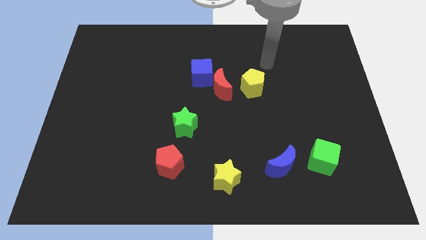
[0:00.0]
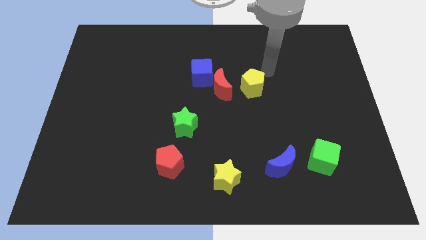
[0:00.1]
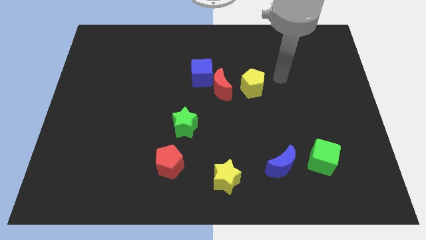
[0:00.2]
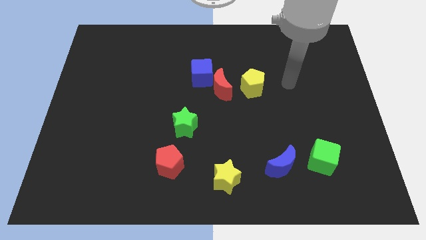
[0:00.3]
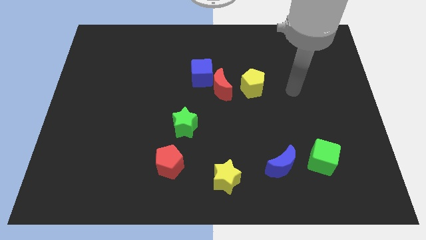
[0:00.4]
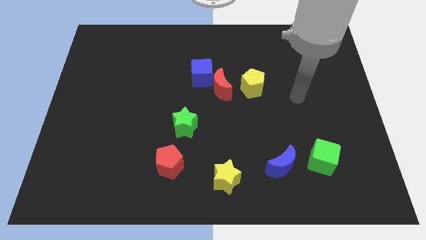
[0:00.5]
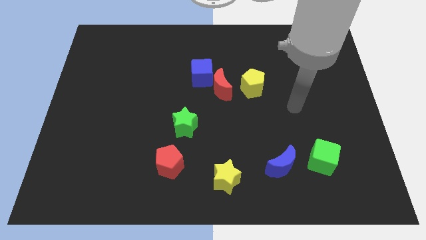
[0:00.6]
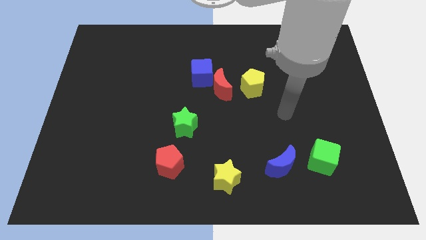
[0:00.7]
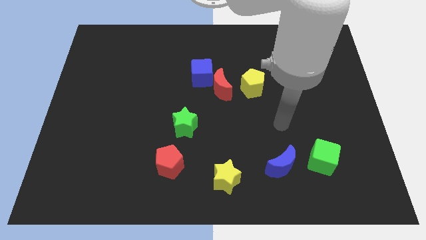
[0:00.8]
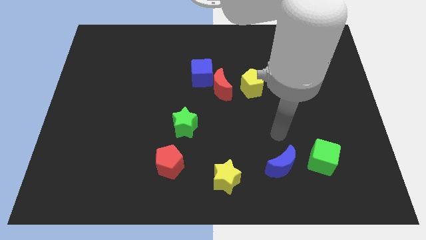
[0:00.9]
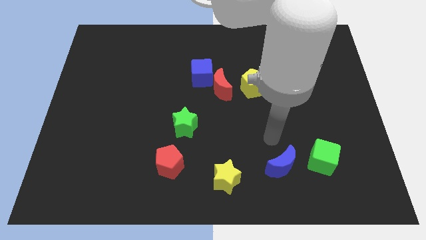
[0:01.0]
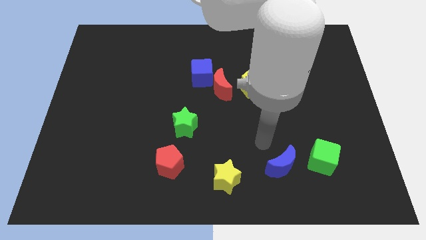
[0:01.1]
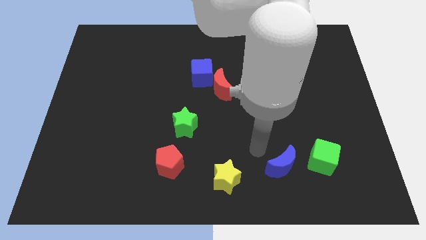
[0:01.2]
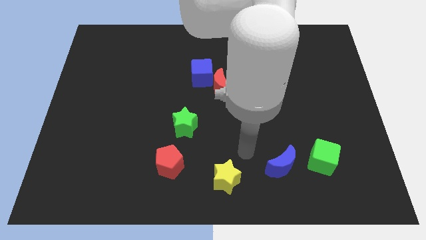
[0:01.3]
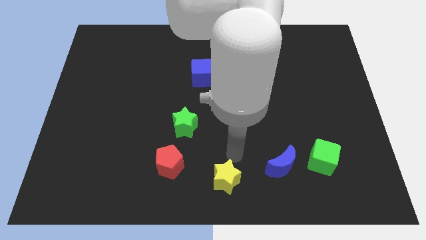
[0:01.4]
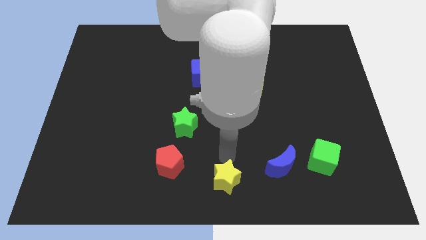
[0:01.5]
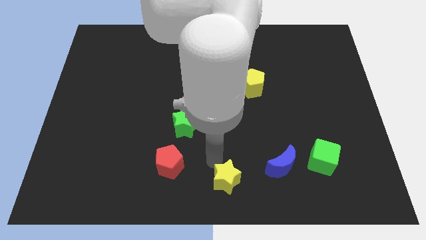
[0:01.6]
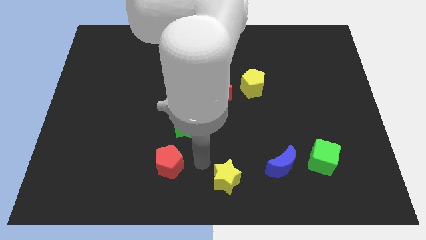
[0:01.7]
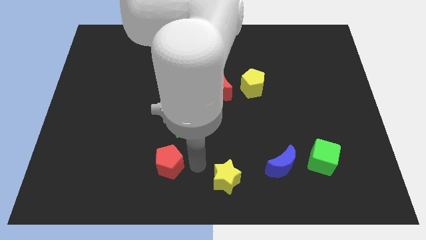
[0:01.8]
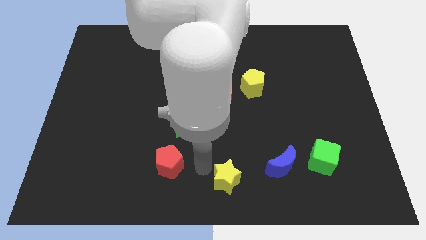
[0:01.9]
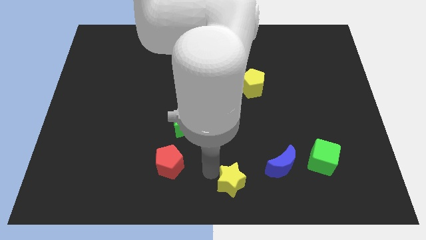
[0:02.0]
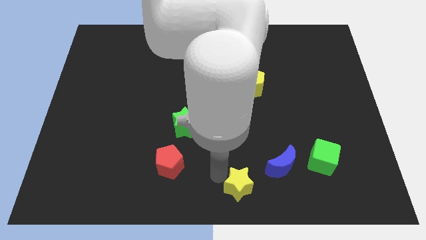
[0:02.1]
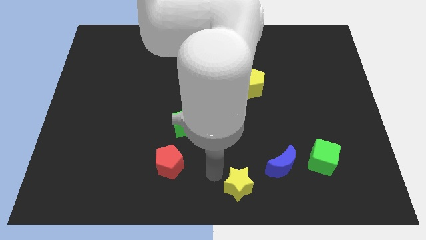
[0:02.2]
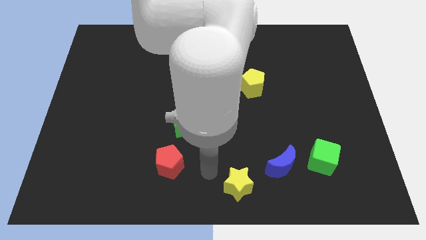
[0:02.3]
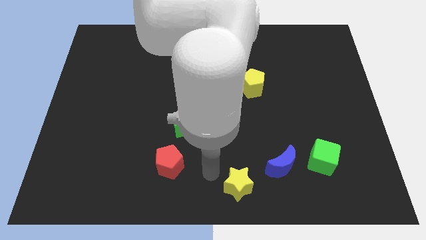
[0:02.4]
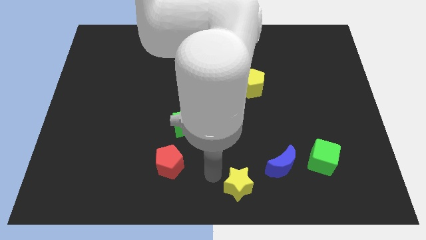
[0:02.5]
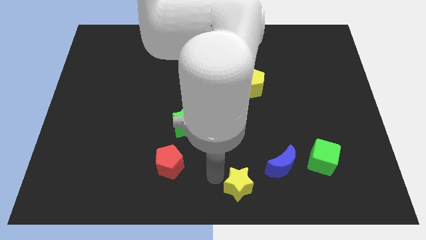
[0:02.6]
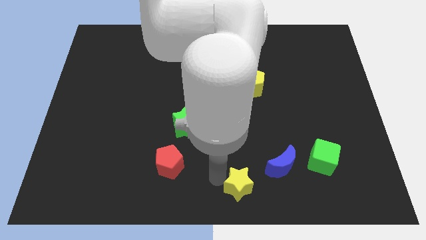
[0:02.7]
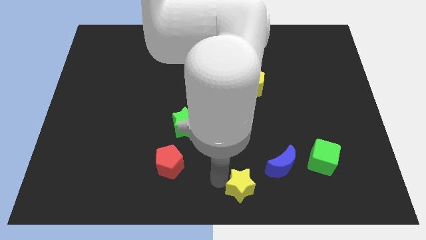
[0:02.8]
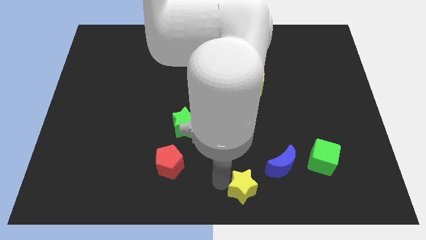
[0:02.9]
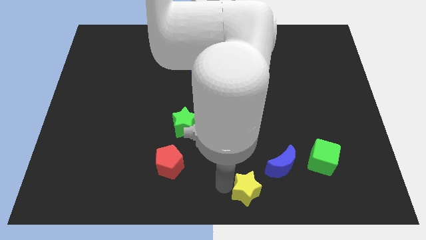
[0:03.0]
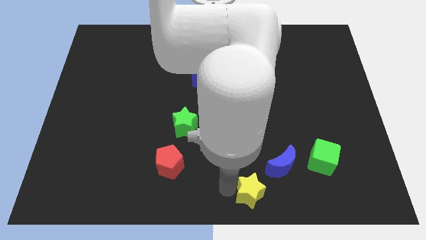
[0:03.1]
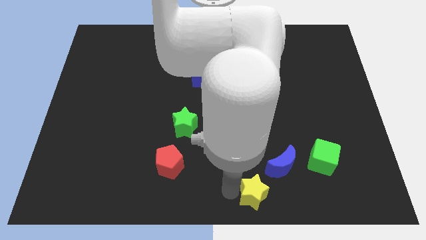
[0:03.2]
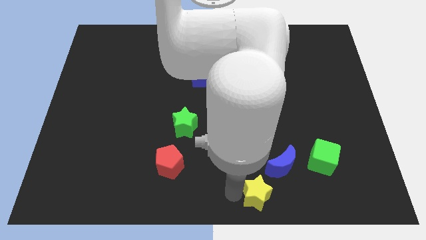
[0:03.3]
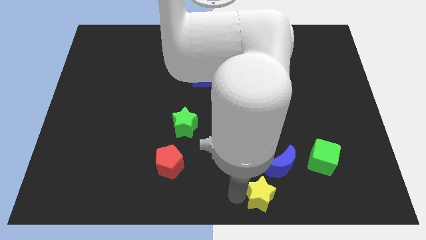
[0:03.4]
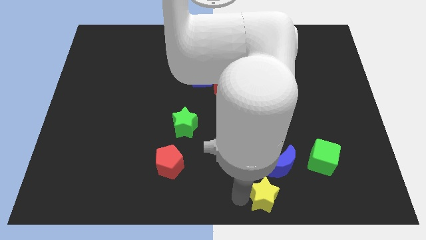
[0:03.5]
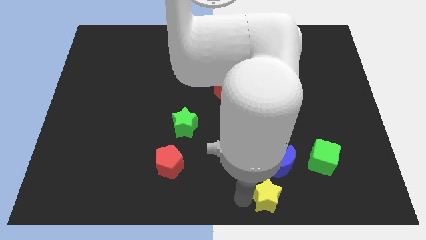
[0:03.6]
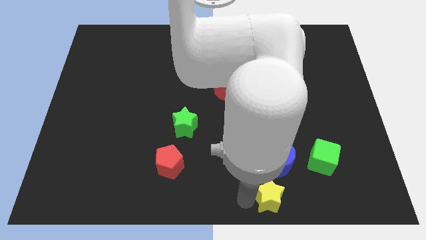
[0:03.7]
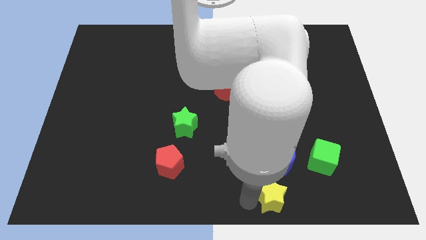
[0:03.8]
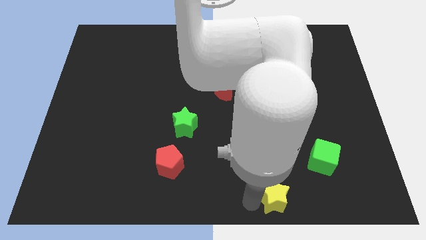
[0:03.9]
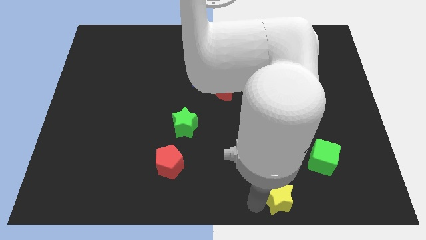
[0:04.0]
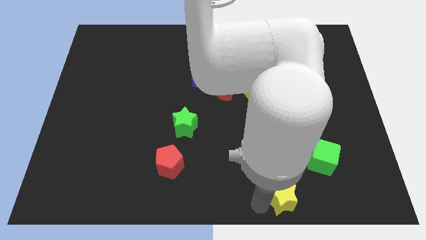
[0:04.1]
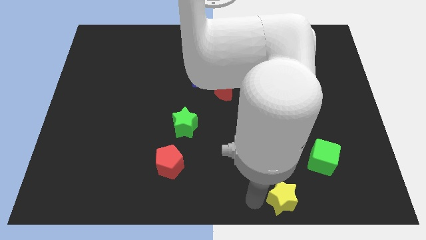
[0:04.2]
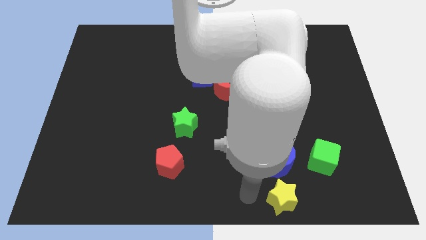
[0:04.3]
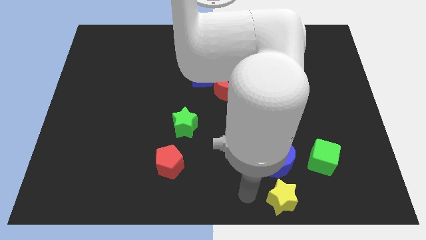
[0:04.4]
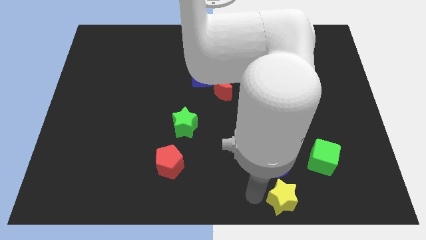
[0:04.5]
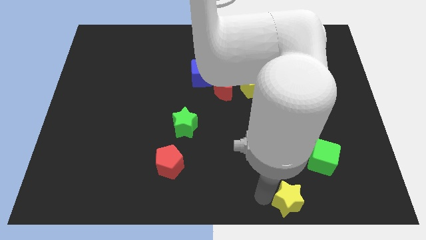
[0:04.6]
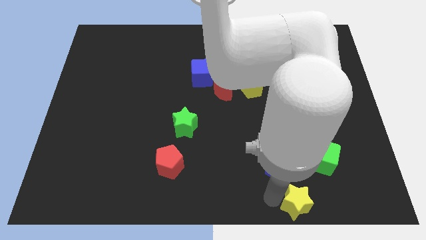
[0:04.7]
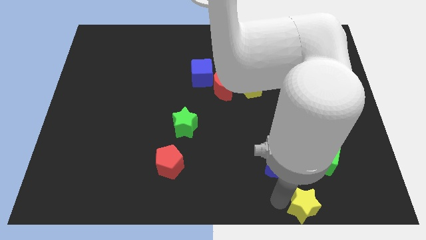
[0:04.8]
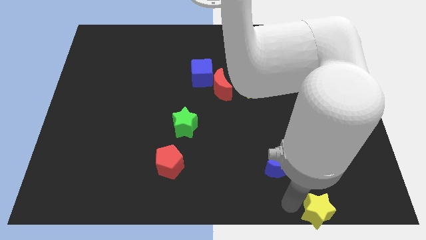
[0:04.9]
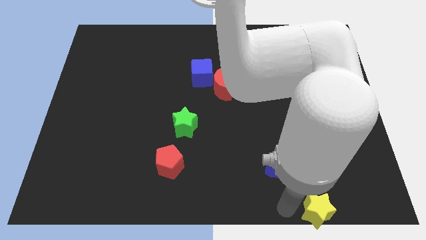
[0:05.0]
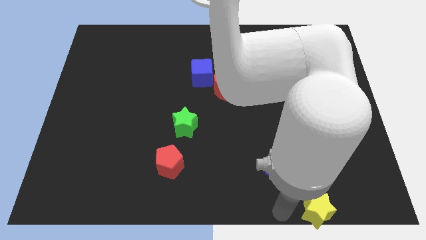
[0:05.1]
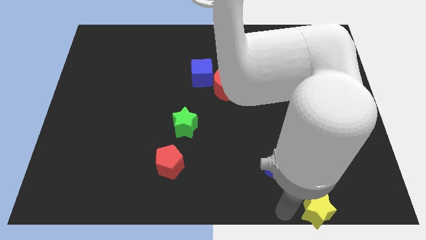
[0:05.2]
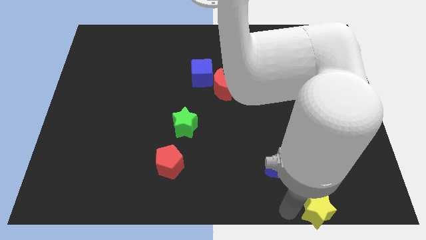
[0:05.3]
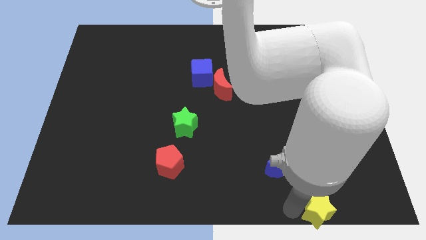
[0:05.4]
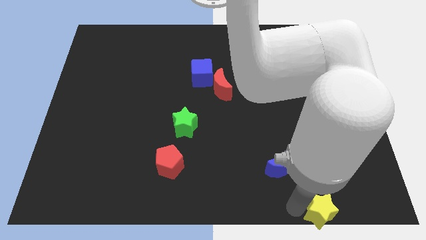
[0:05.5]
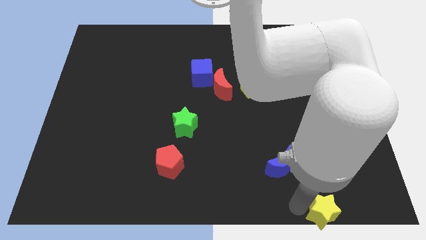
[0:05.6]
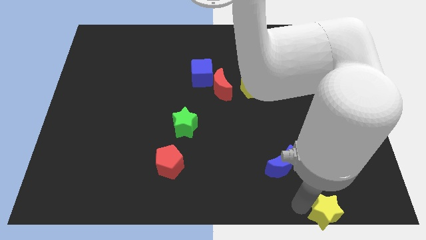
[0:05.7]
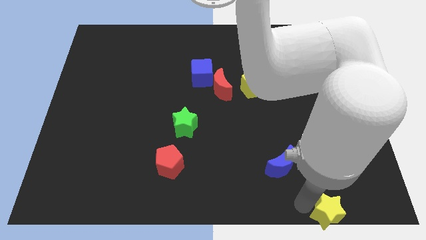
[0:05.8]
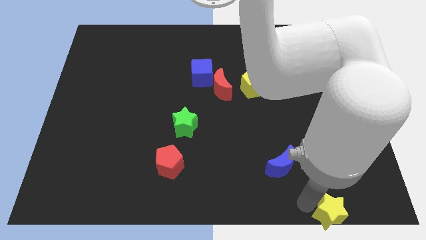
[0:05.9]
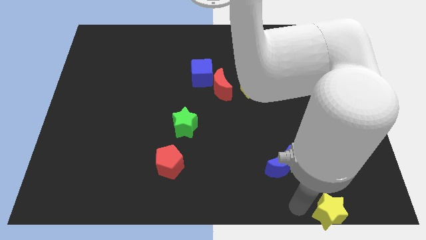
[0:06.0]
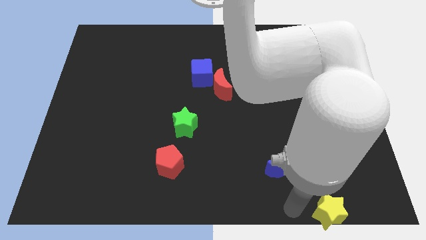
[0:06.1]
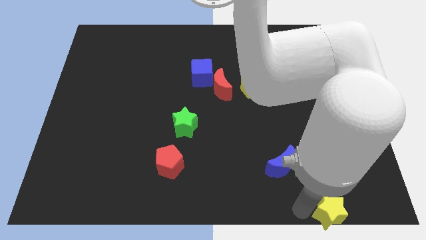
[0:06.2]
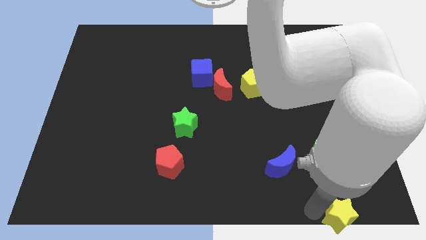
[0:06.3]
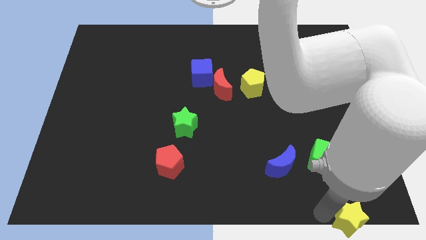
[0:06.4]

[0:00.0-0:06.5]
put the yellow star to the bottom right of the board
